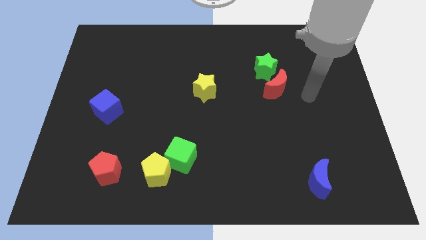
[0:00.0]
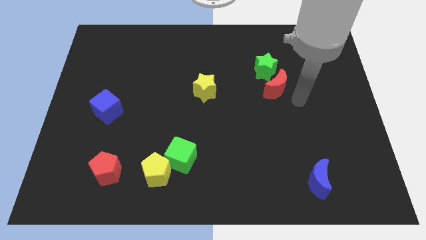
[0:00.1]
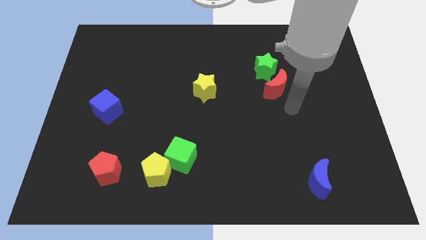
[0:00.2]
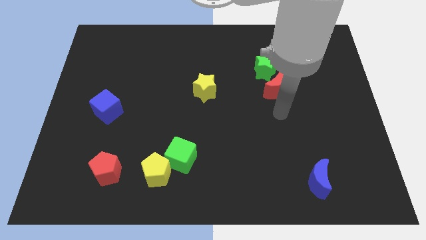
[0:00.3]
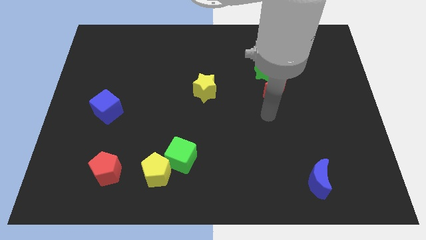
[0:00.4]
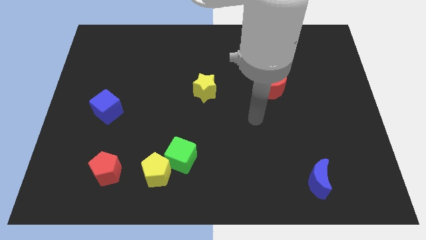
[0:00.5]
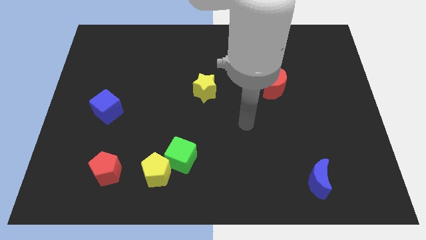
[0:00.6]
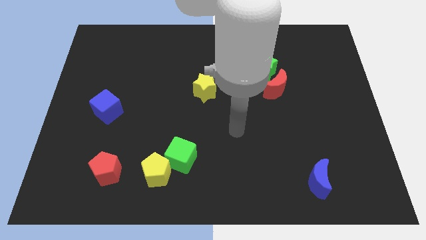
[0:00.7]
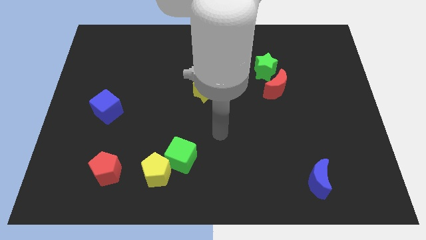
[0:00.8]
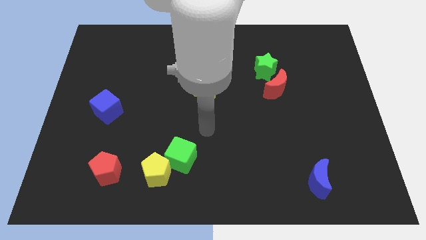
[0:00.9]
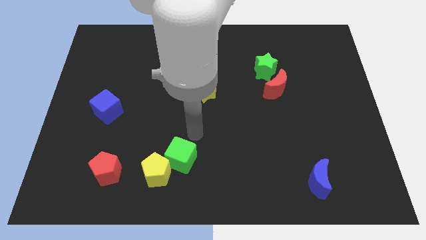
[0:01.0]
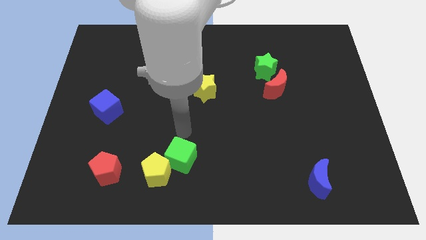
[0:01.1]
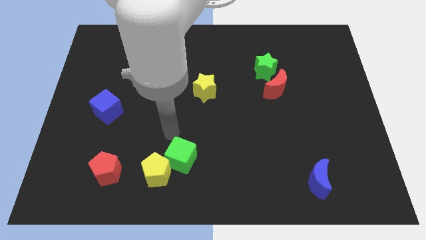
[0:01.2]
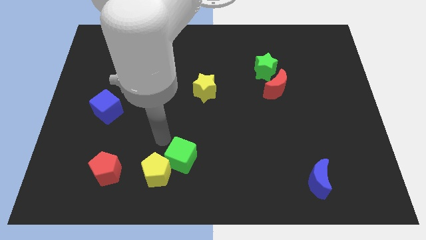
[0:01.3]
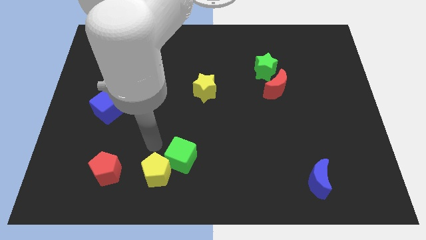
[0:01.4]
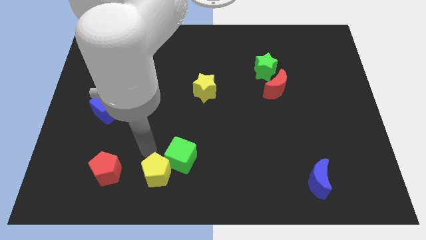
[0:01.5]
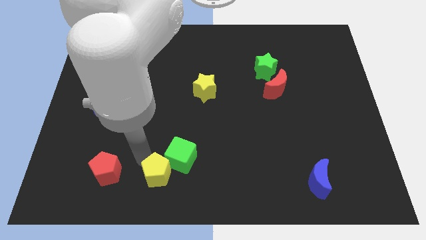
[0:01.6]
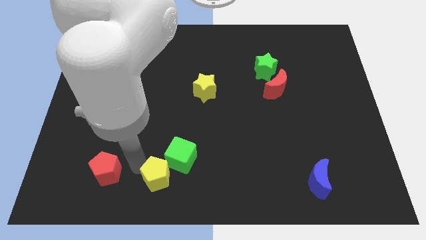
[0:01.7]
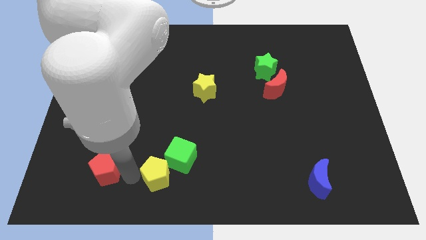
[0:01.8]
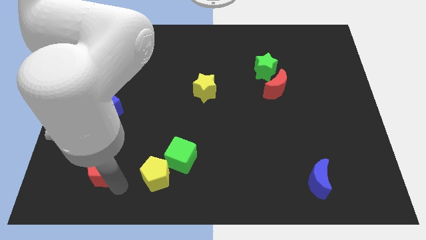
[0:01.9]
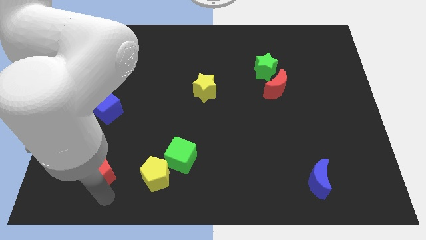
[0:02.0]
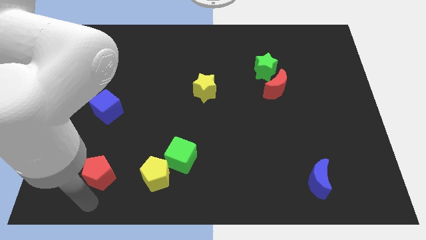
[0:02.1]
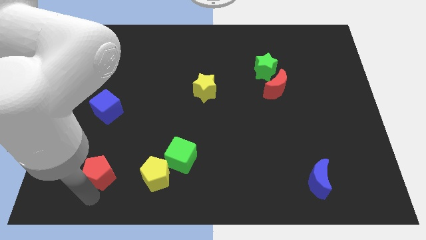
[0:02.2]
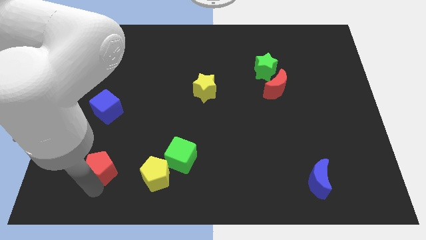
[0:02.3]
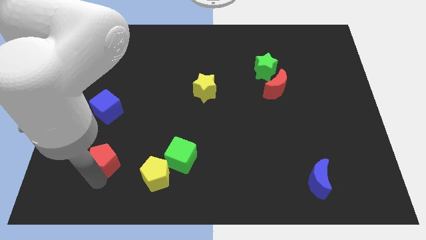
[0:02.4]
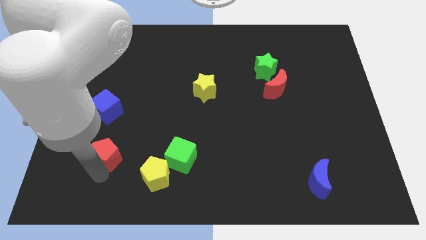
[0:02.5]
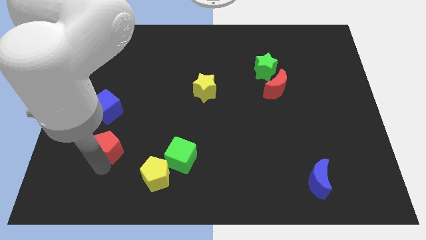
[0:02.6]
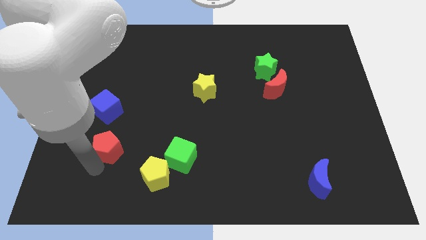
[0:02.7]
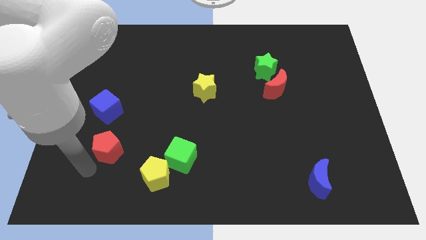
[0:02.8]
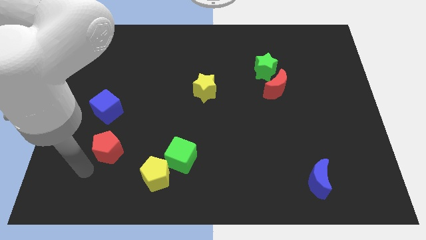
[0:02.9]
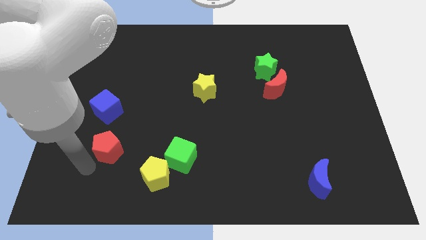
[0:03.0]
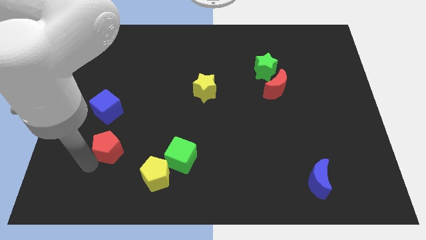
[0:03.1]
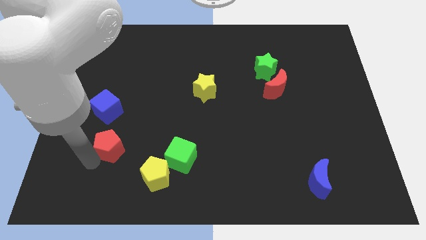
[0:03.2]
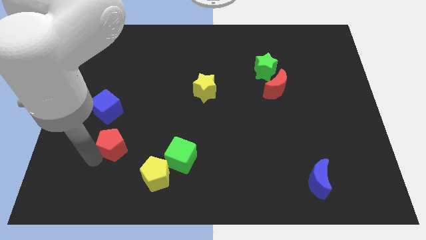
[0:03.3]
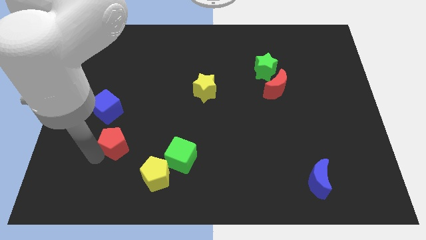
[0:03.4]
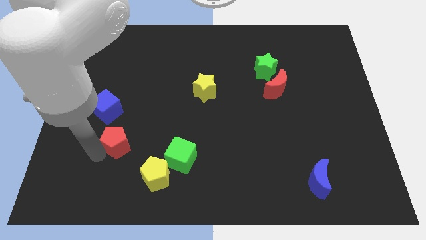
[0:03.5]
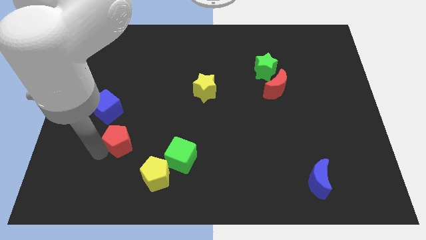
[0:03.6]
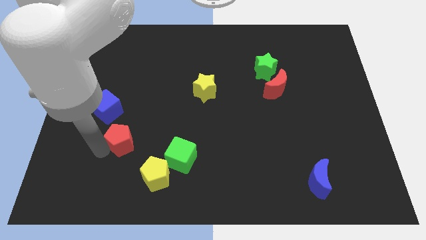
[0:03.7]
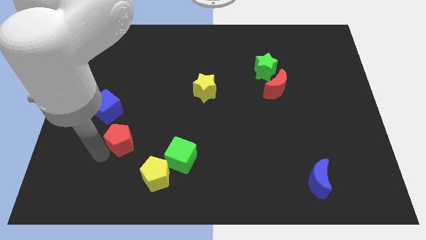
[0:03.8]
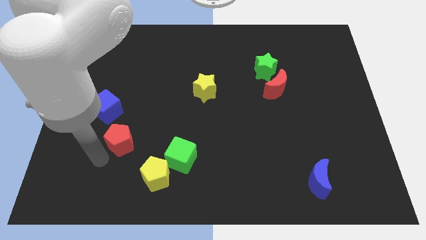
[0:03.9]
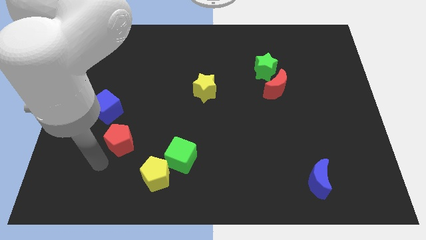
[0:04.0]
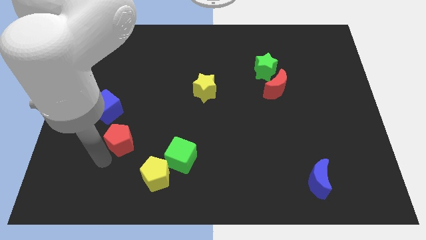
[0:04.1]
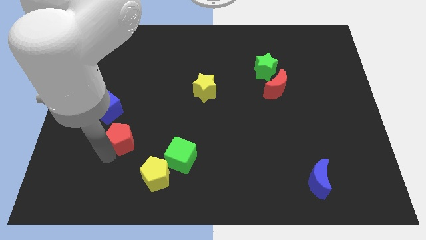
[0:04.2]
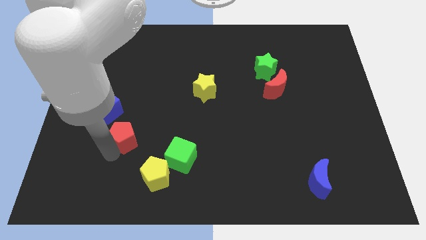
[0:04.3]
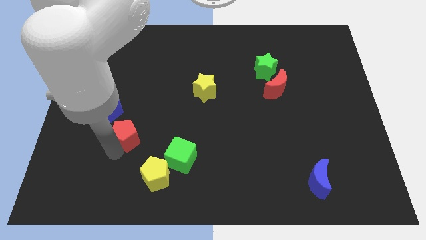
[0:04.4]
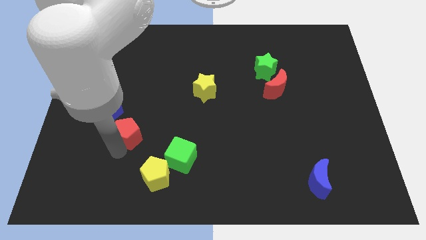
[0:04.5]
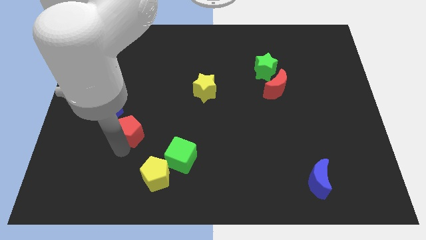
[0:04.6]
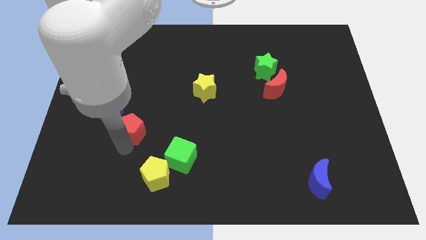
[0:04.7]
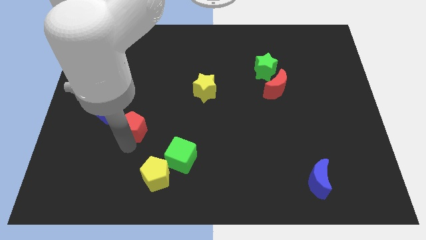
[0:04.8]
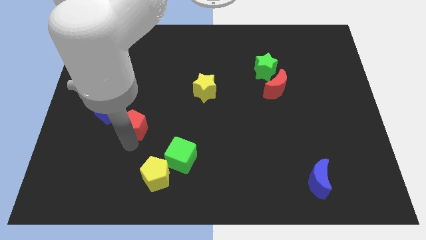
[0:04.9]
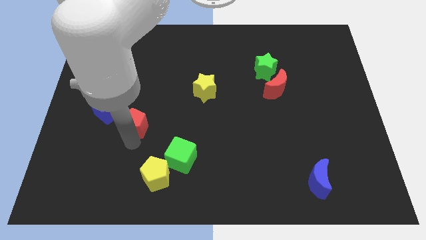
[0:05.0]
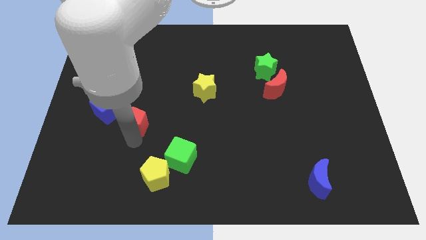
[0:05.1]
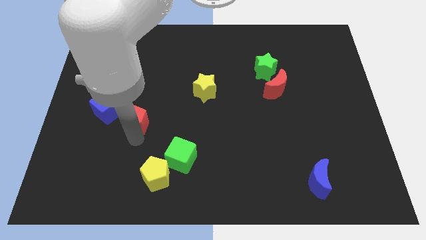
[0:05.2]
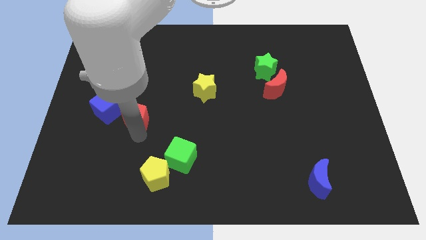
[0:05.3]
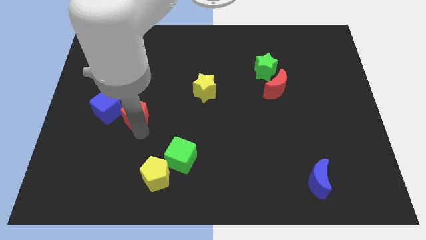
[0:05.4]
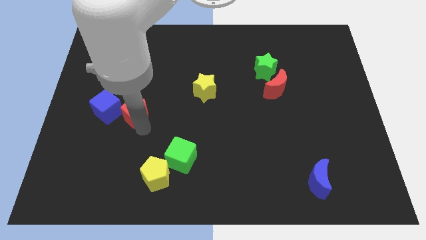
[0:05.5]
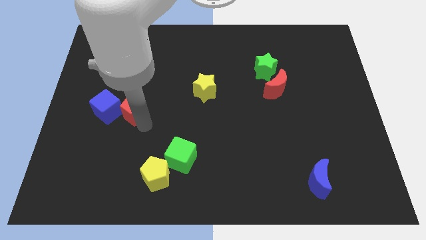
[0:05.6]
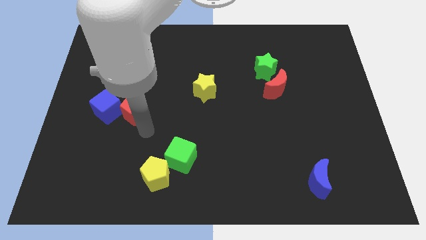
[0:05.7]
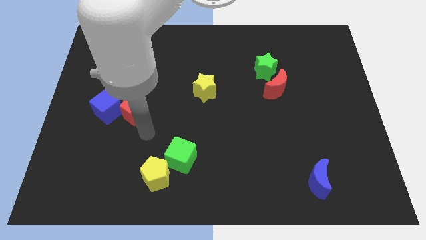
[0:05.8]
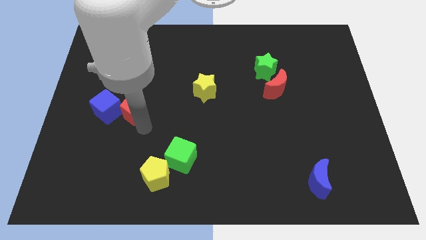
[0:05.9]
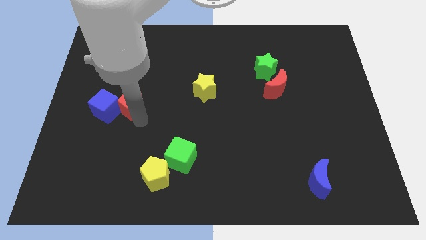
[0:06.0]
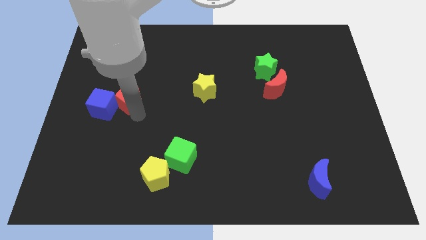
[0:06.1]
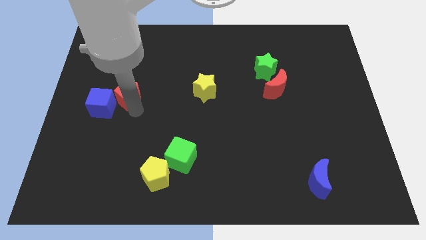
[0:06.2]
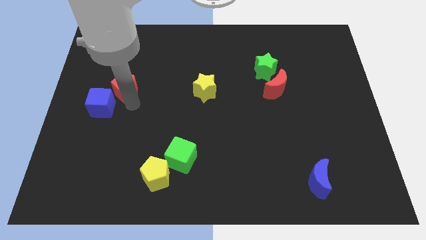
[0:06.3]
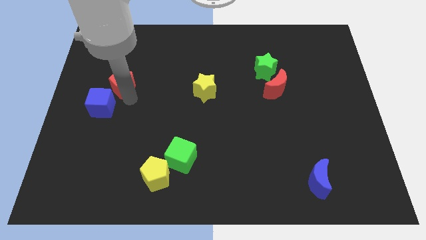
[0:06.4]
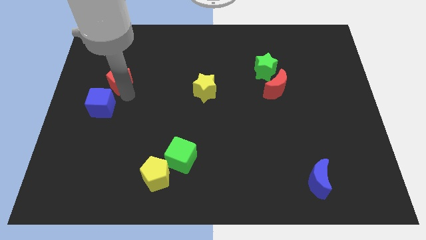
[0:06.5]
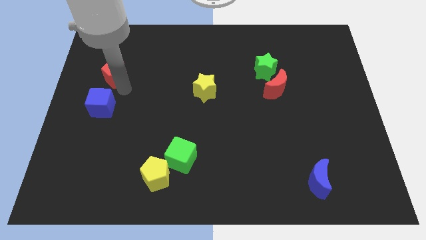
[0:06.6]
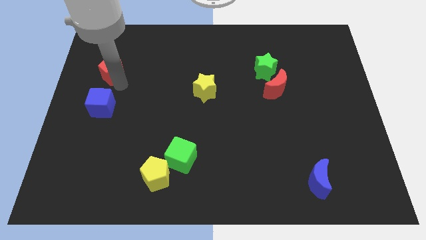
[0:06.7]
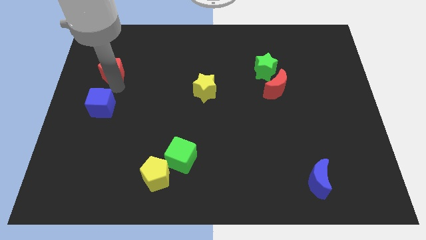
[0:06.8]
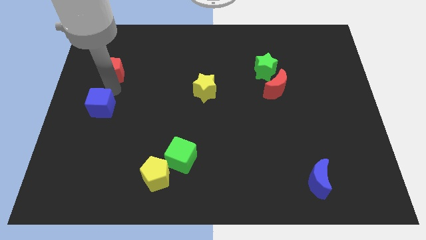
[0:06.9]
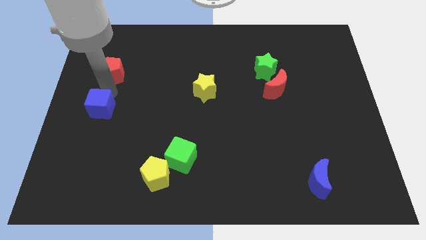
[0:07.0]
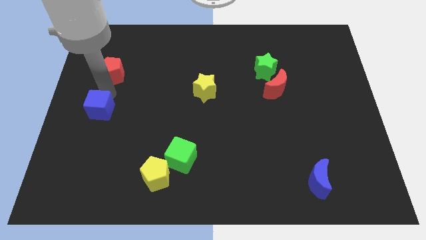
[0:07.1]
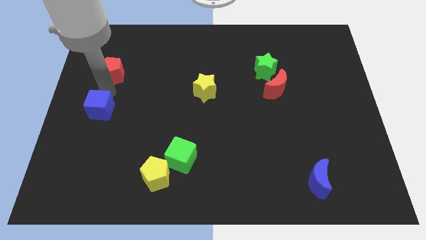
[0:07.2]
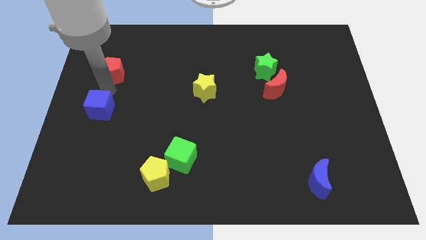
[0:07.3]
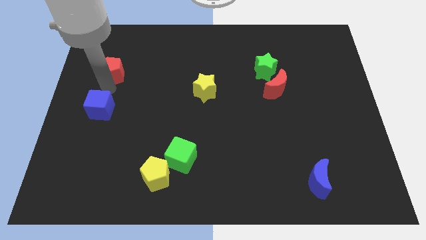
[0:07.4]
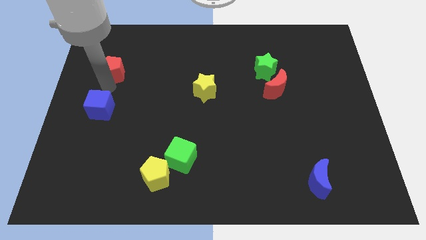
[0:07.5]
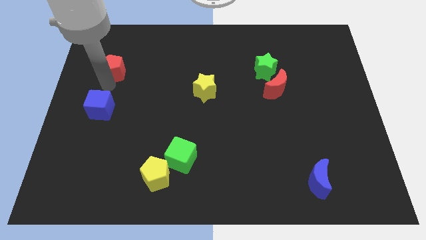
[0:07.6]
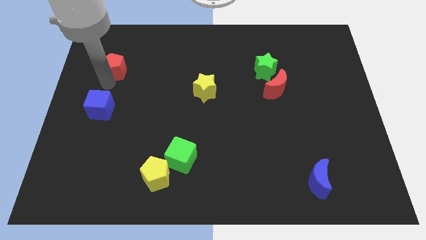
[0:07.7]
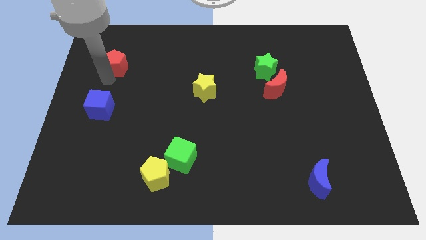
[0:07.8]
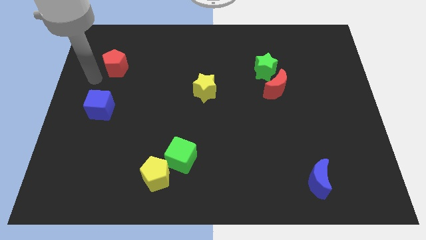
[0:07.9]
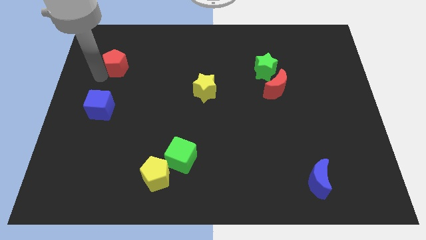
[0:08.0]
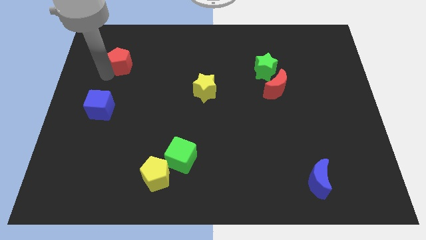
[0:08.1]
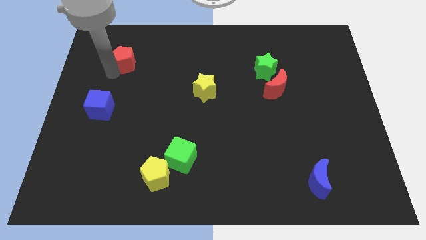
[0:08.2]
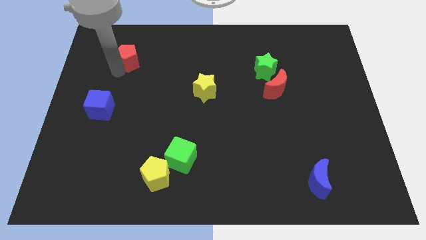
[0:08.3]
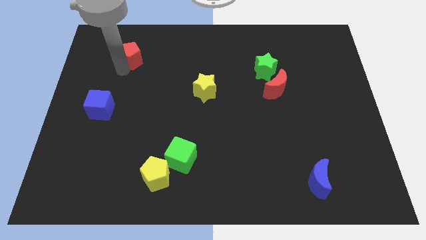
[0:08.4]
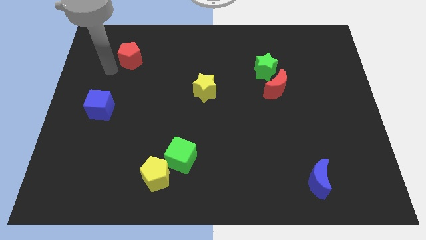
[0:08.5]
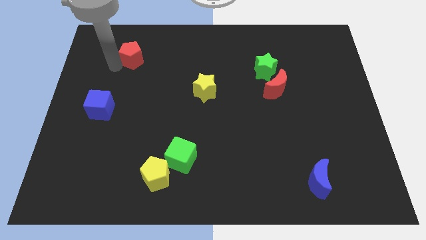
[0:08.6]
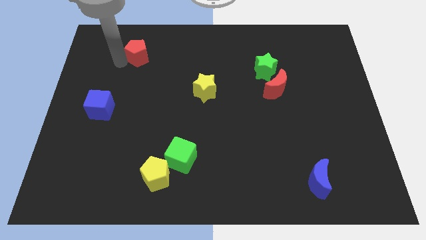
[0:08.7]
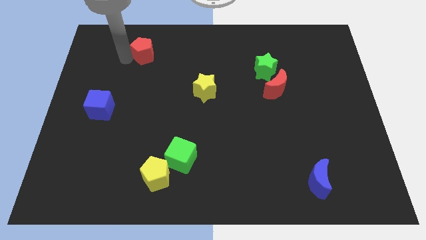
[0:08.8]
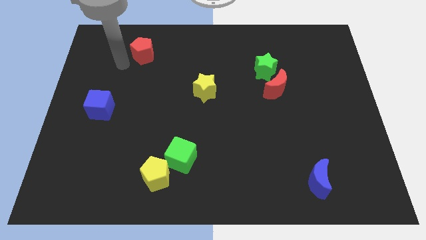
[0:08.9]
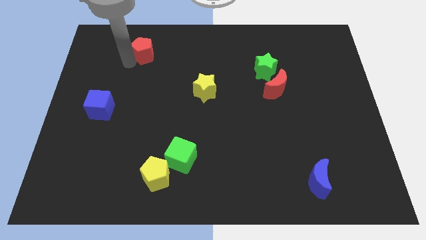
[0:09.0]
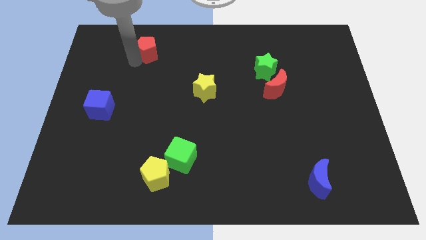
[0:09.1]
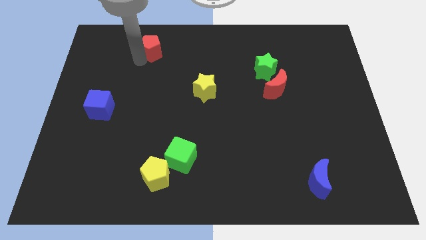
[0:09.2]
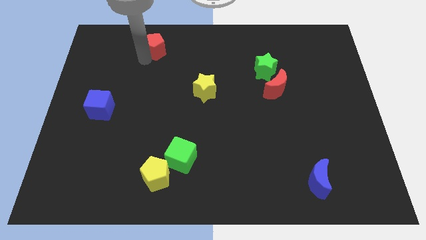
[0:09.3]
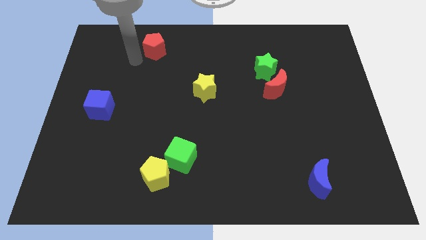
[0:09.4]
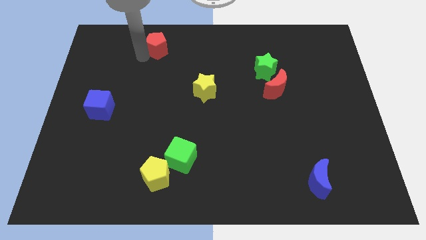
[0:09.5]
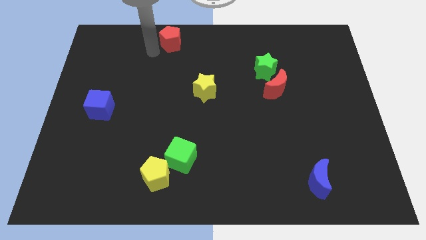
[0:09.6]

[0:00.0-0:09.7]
push the red pentagon to the top
